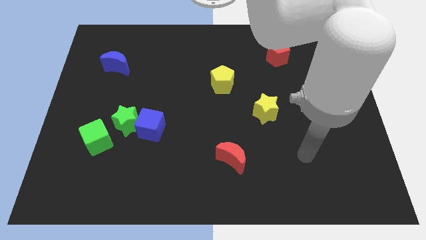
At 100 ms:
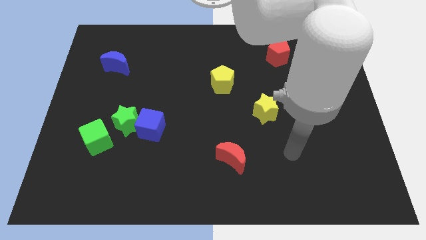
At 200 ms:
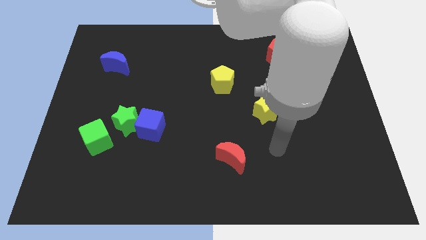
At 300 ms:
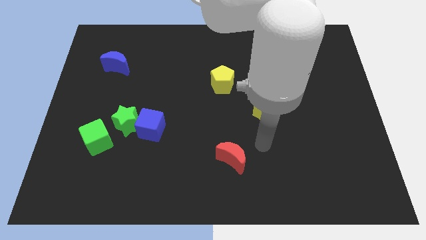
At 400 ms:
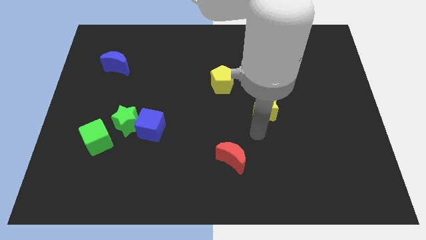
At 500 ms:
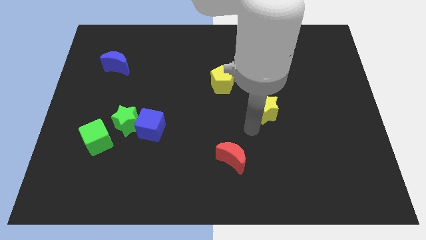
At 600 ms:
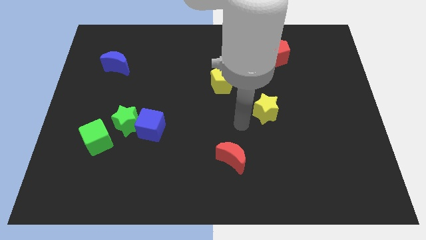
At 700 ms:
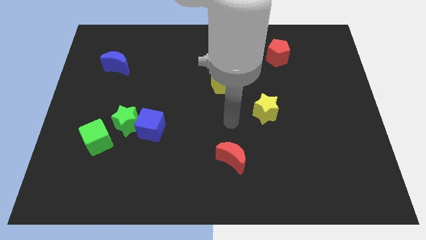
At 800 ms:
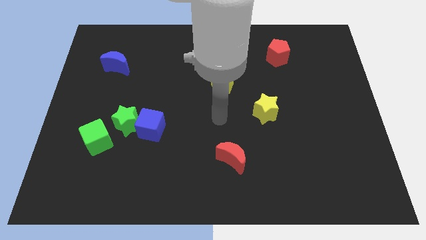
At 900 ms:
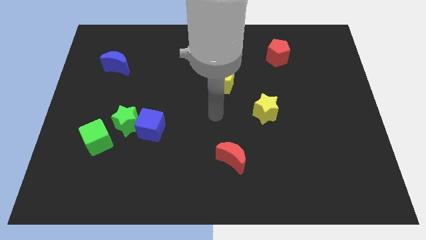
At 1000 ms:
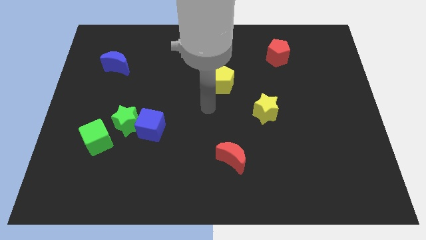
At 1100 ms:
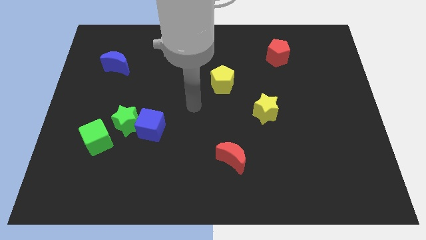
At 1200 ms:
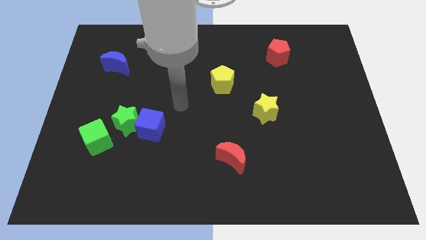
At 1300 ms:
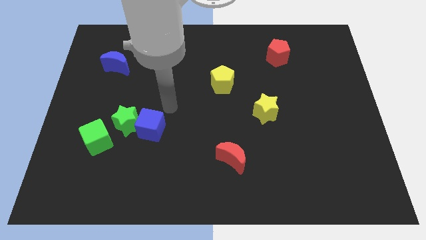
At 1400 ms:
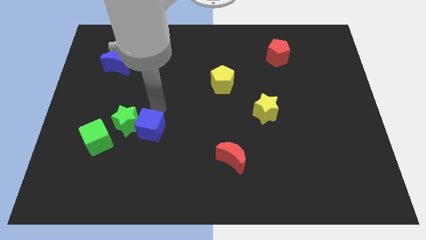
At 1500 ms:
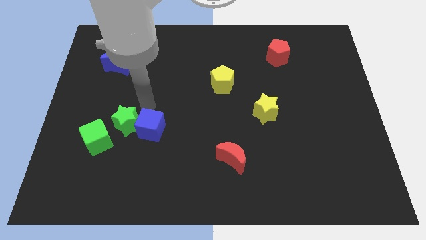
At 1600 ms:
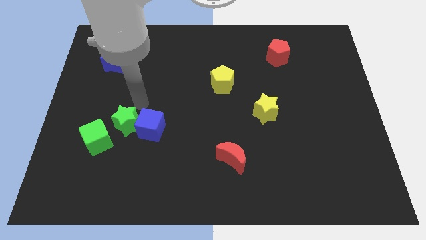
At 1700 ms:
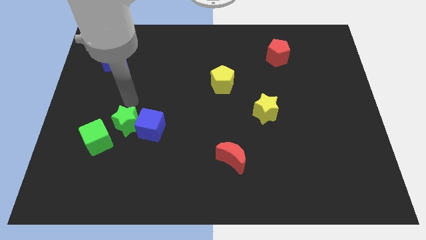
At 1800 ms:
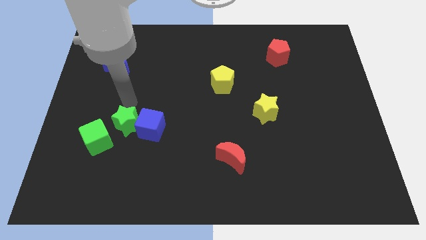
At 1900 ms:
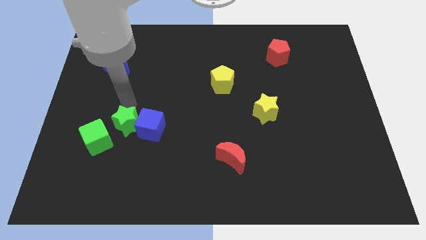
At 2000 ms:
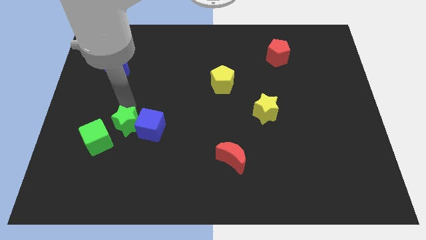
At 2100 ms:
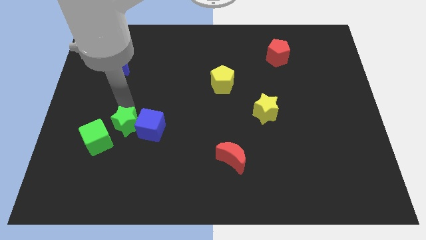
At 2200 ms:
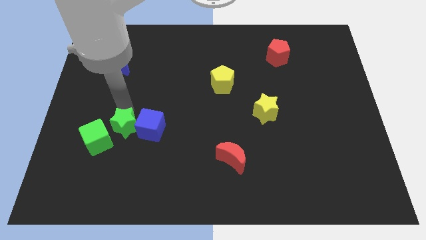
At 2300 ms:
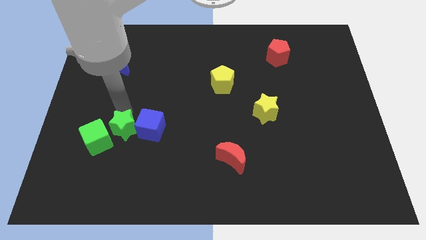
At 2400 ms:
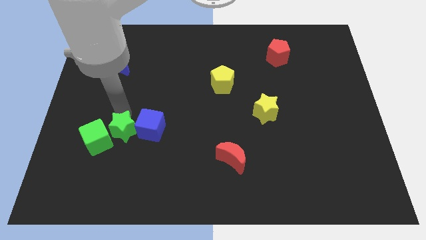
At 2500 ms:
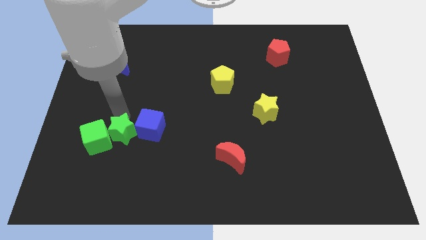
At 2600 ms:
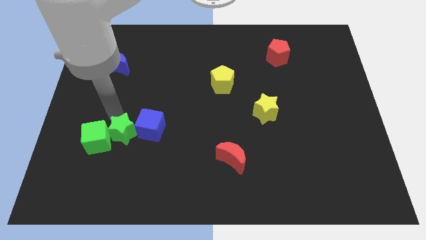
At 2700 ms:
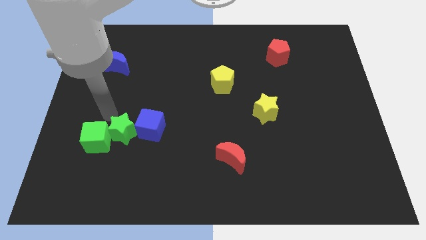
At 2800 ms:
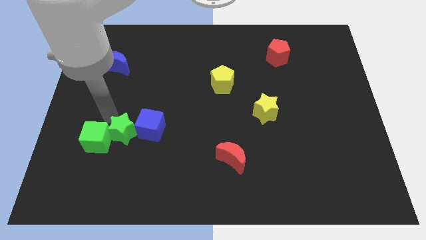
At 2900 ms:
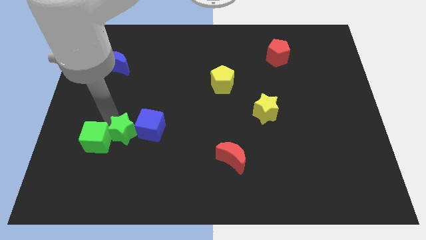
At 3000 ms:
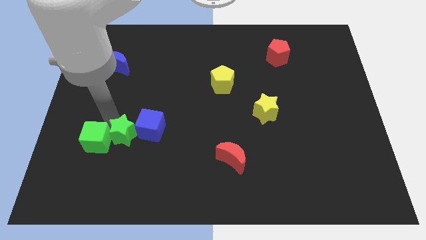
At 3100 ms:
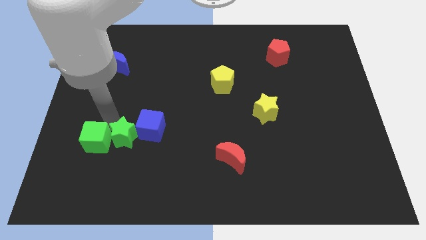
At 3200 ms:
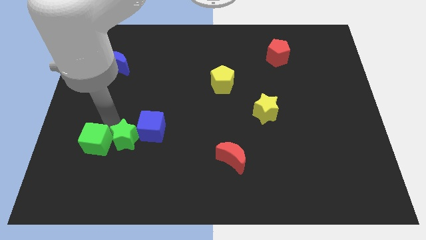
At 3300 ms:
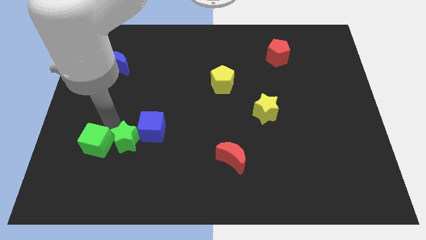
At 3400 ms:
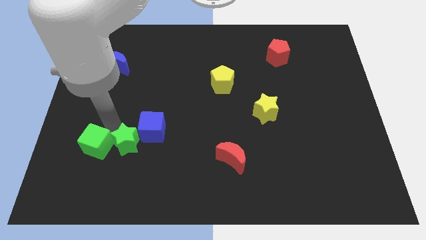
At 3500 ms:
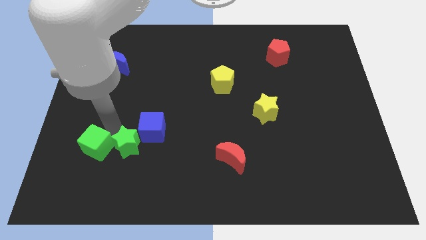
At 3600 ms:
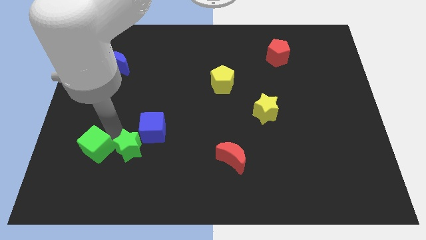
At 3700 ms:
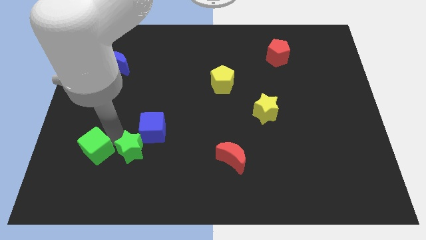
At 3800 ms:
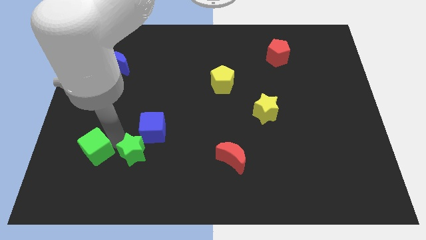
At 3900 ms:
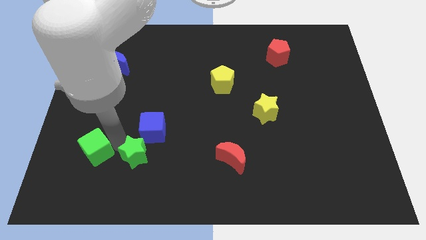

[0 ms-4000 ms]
slightly push the green star downwards and right diagonally

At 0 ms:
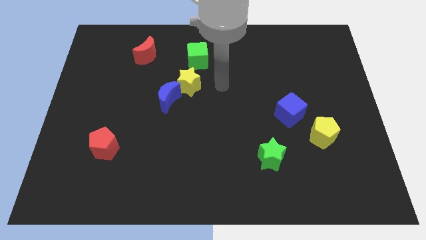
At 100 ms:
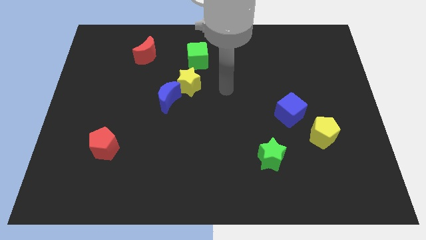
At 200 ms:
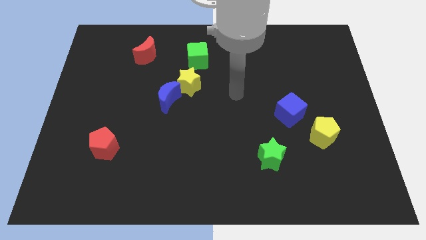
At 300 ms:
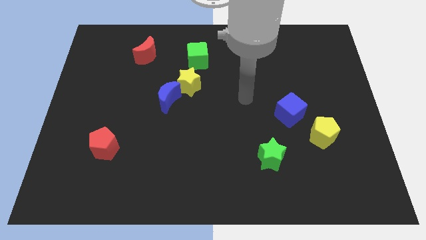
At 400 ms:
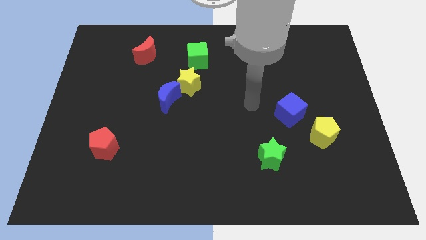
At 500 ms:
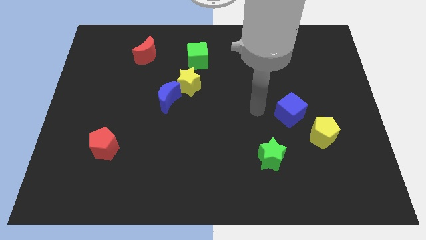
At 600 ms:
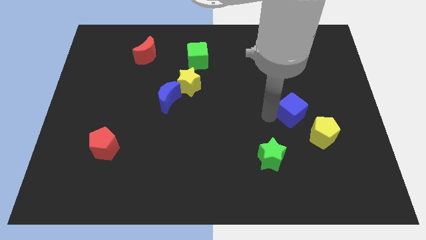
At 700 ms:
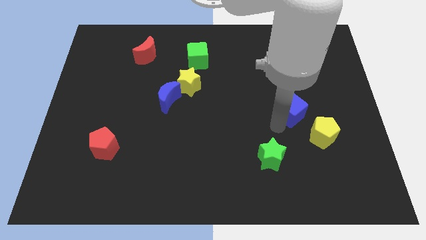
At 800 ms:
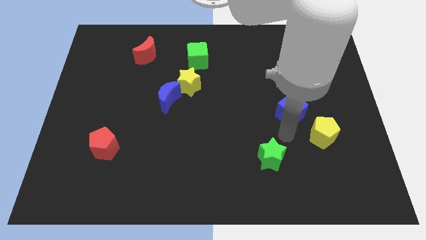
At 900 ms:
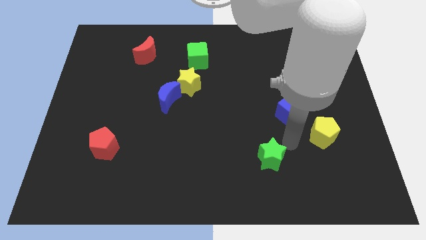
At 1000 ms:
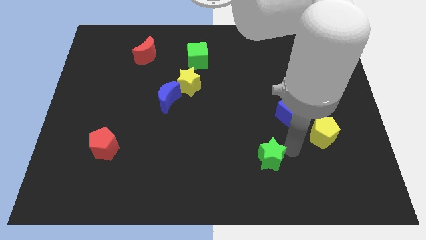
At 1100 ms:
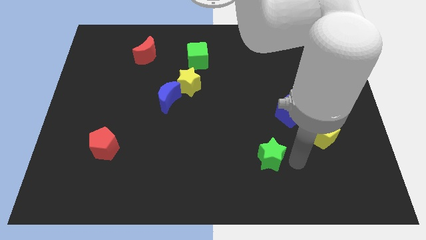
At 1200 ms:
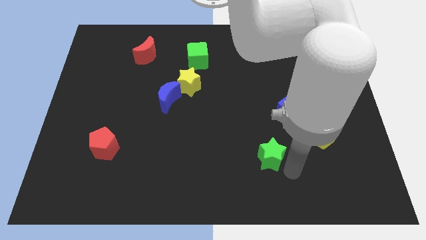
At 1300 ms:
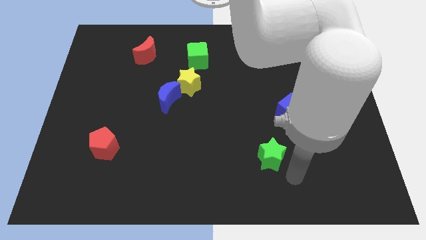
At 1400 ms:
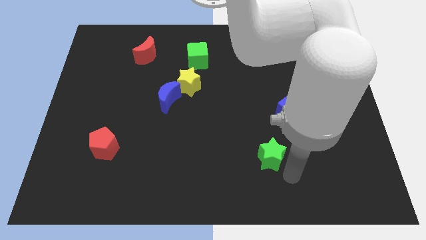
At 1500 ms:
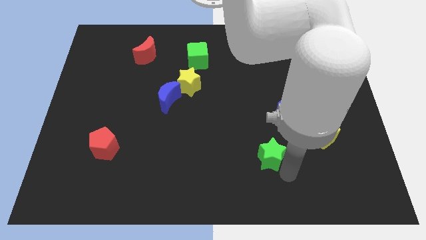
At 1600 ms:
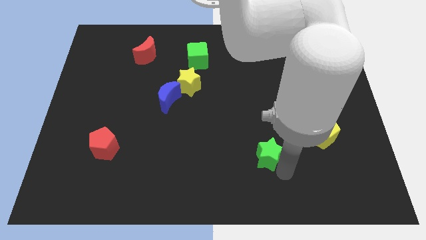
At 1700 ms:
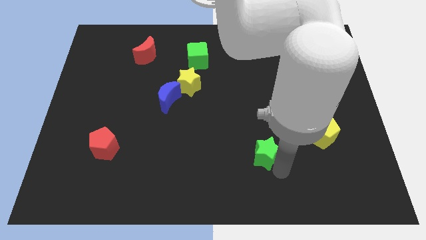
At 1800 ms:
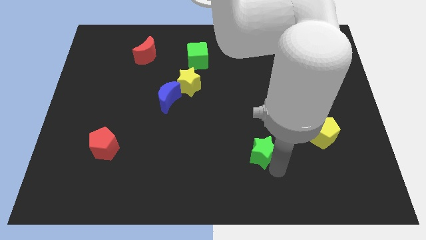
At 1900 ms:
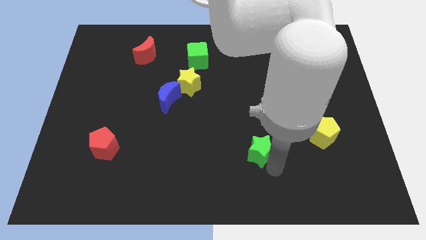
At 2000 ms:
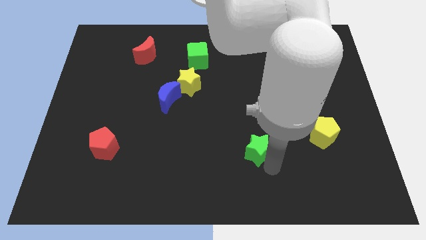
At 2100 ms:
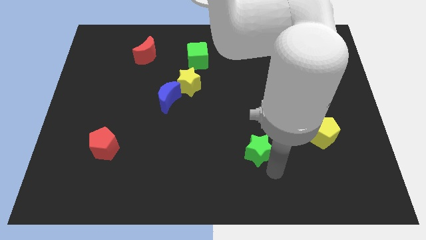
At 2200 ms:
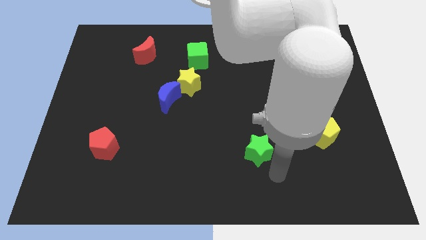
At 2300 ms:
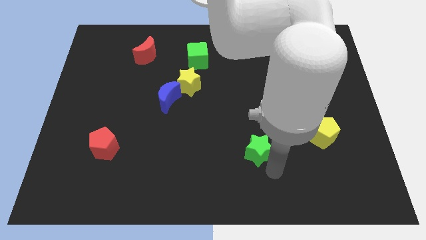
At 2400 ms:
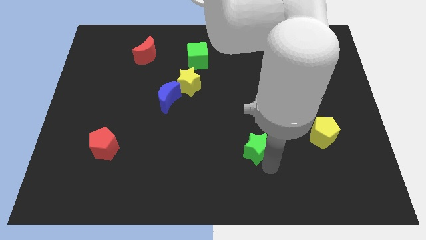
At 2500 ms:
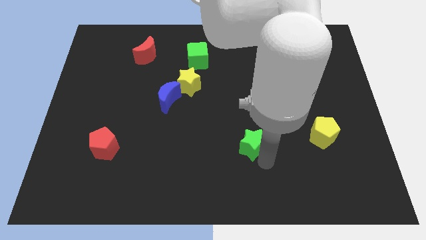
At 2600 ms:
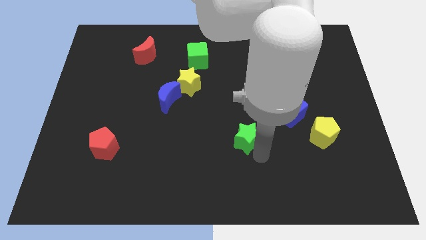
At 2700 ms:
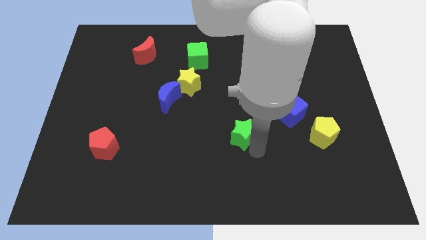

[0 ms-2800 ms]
push the green star somewhat diagonally up and to the left

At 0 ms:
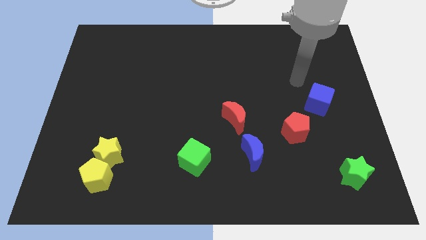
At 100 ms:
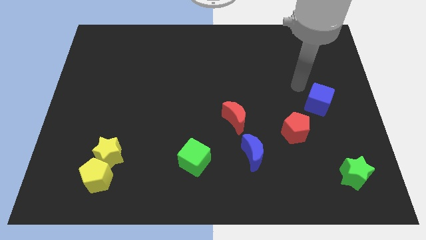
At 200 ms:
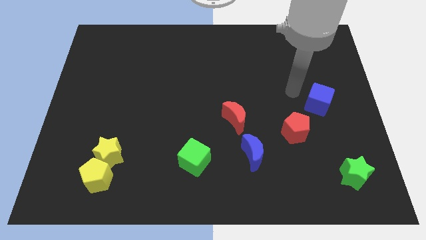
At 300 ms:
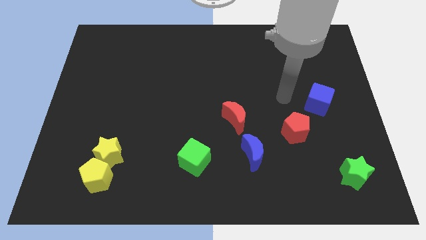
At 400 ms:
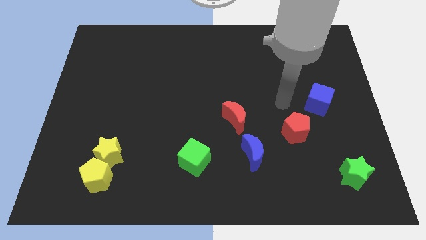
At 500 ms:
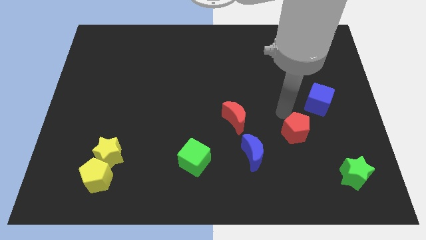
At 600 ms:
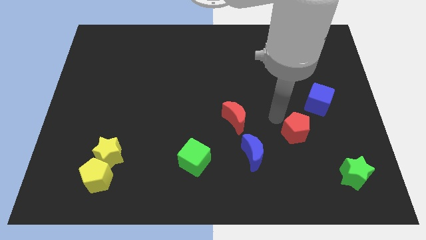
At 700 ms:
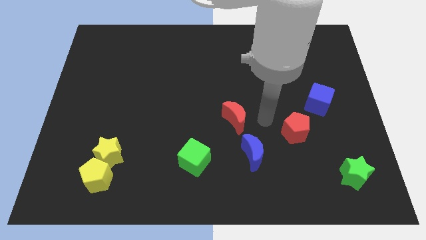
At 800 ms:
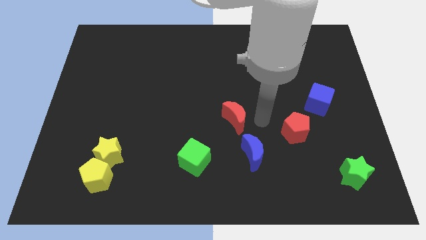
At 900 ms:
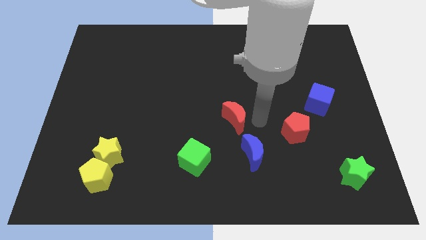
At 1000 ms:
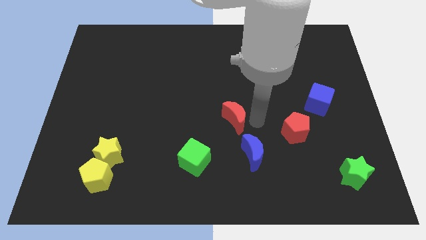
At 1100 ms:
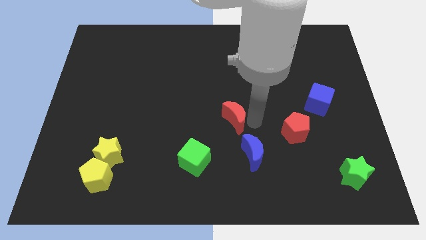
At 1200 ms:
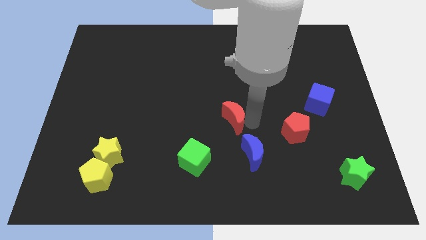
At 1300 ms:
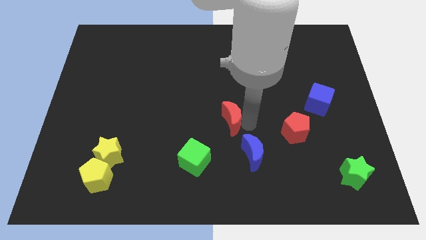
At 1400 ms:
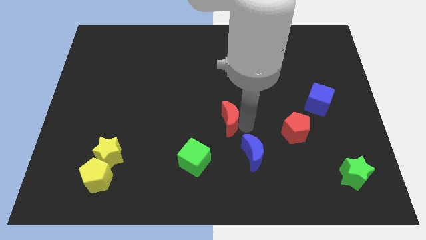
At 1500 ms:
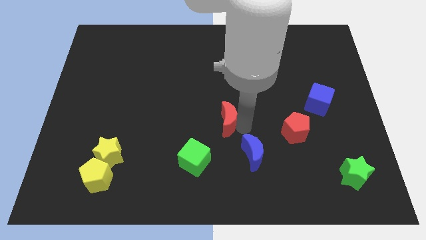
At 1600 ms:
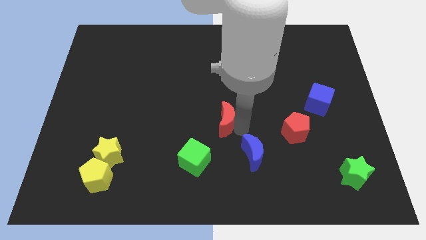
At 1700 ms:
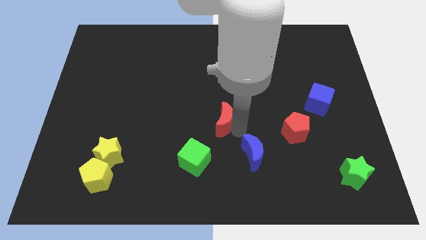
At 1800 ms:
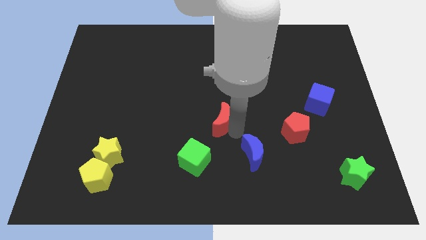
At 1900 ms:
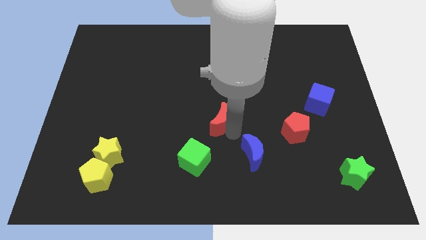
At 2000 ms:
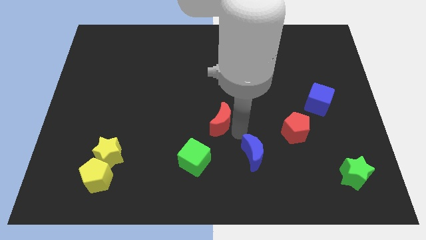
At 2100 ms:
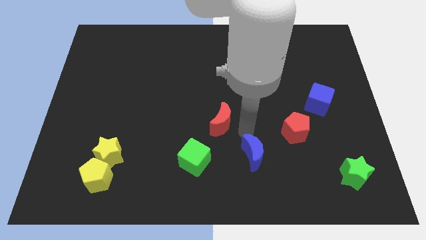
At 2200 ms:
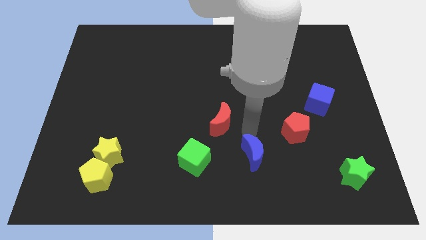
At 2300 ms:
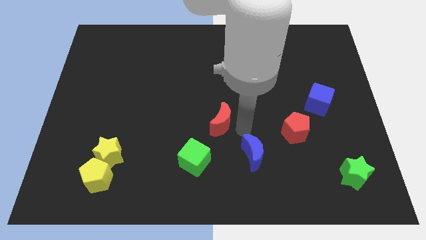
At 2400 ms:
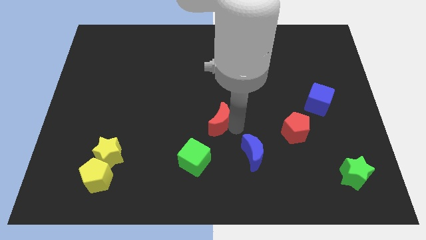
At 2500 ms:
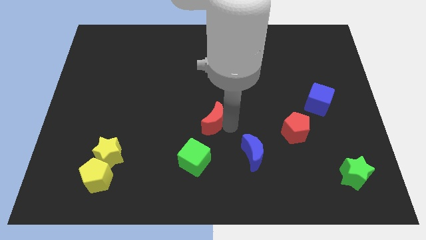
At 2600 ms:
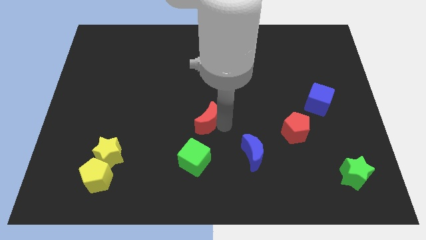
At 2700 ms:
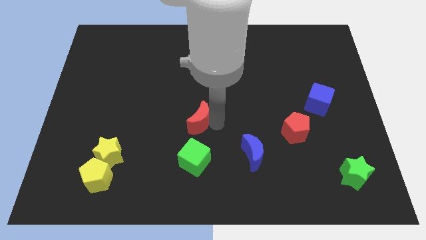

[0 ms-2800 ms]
slide the red moon a bit left
